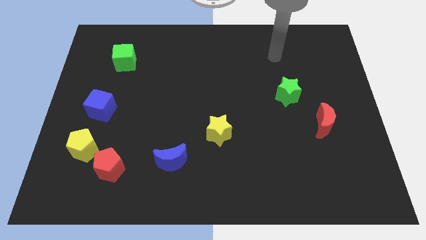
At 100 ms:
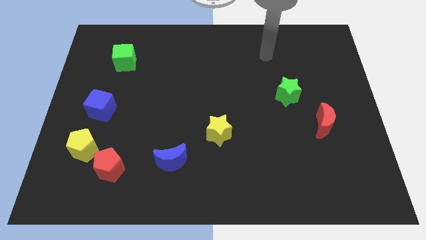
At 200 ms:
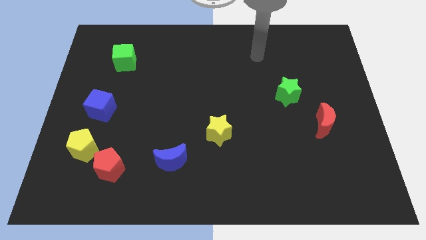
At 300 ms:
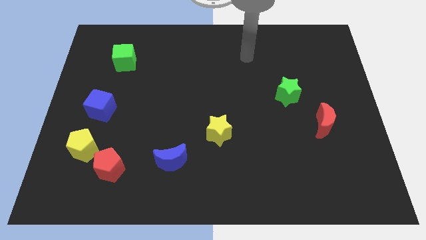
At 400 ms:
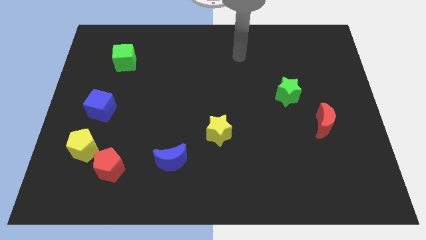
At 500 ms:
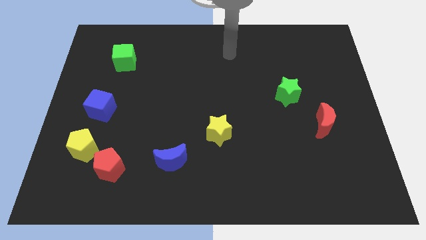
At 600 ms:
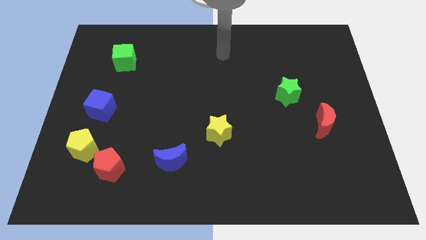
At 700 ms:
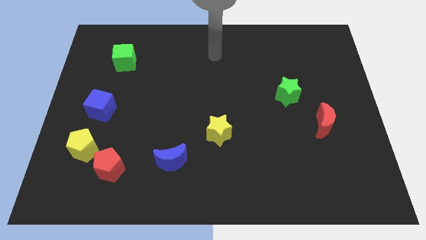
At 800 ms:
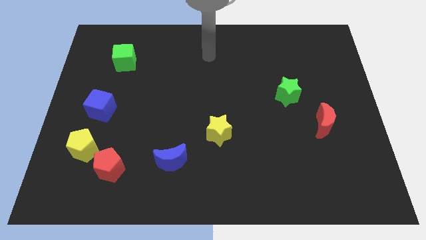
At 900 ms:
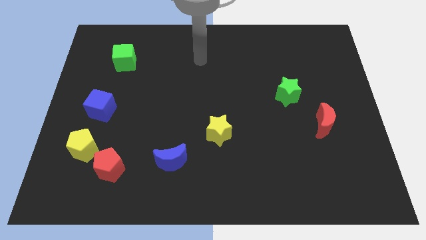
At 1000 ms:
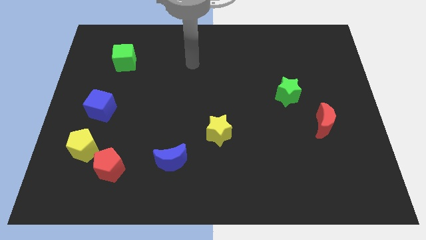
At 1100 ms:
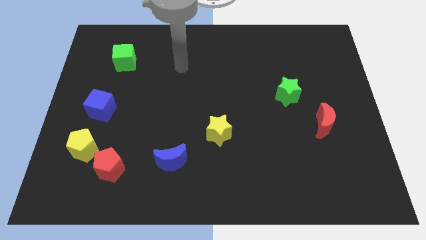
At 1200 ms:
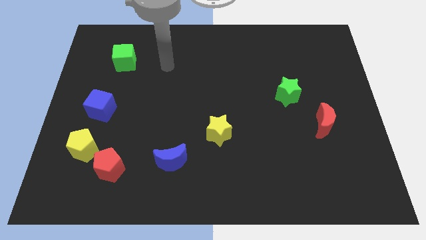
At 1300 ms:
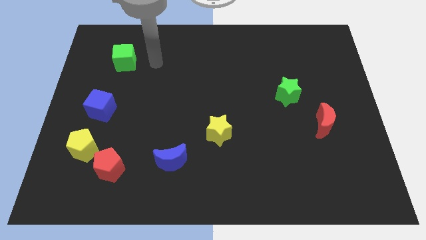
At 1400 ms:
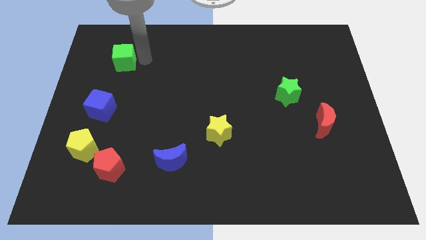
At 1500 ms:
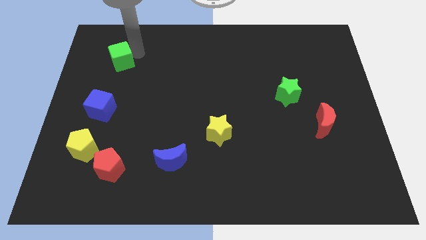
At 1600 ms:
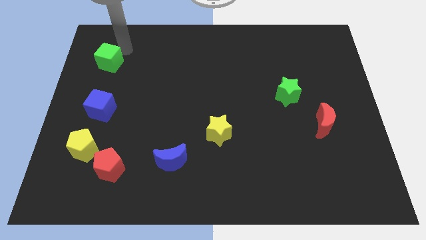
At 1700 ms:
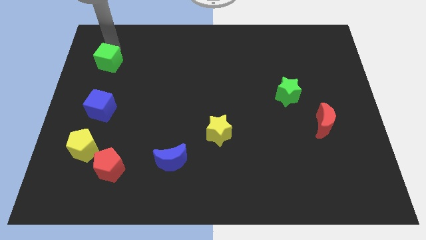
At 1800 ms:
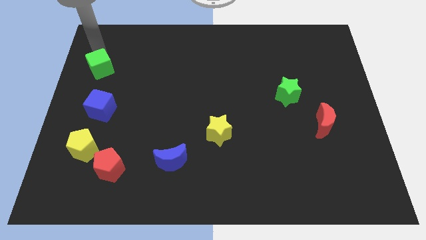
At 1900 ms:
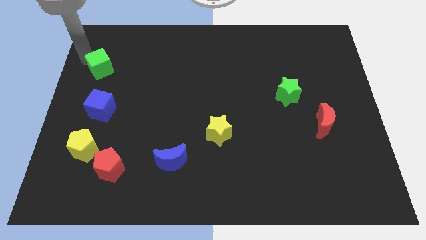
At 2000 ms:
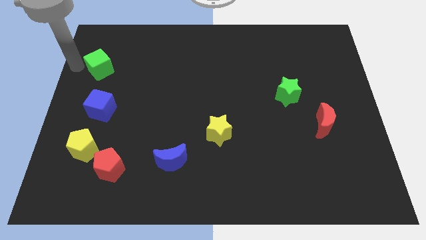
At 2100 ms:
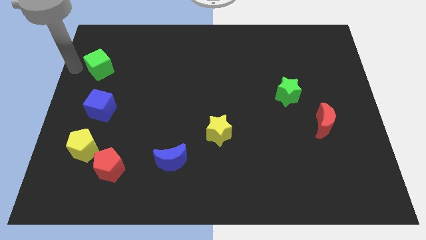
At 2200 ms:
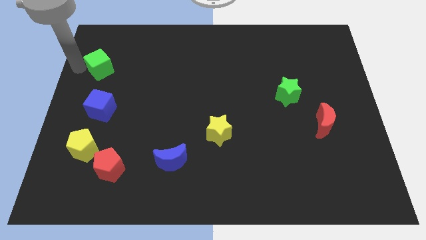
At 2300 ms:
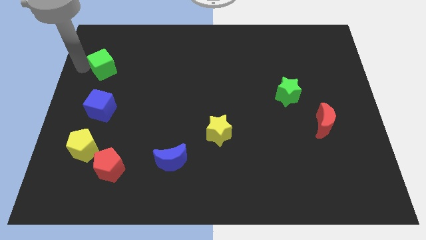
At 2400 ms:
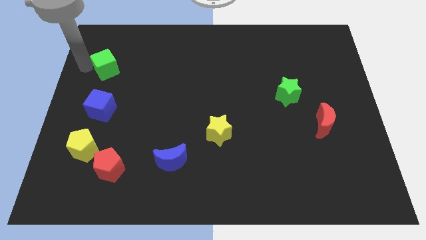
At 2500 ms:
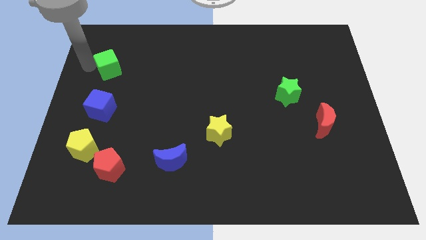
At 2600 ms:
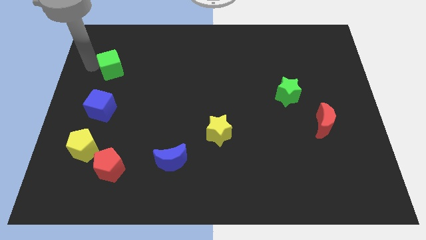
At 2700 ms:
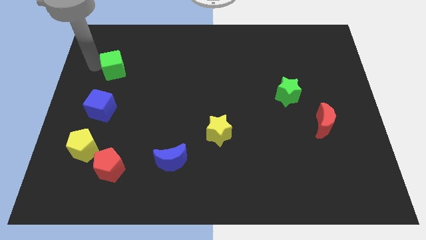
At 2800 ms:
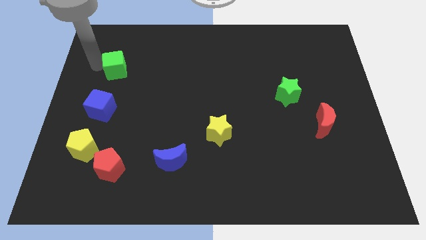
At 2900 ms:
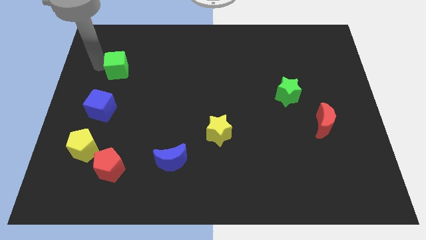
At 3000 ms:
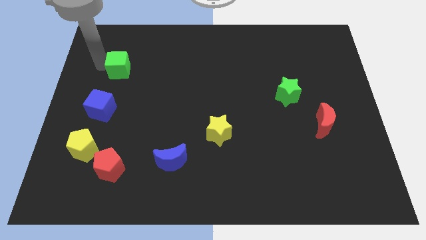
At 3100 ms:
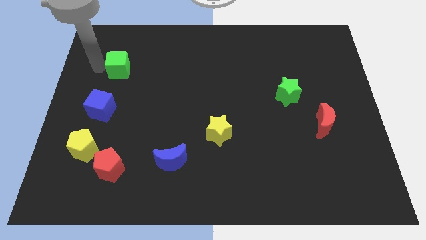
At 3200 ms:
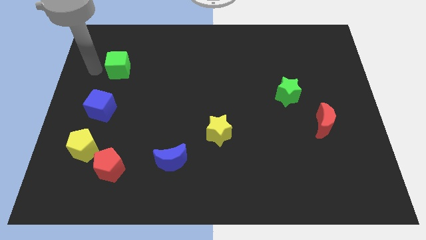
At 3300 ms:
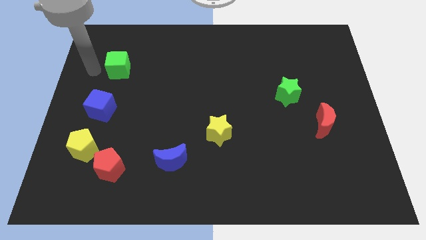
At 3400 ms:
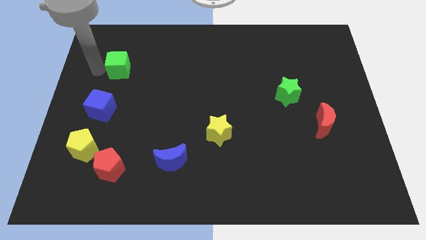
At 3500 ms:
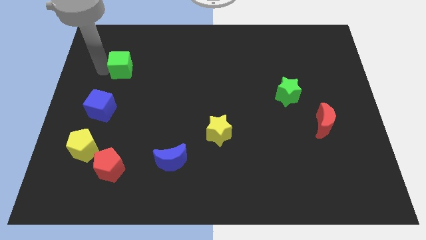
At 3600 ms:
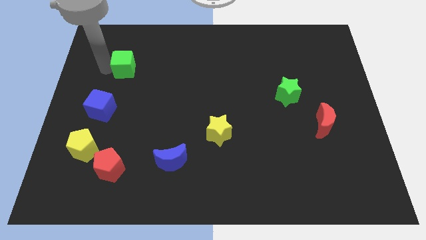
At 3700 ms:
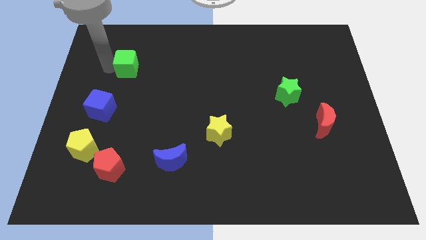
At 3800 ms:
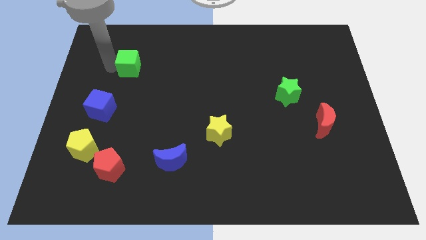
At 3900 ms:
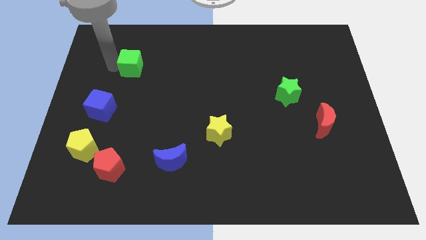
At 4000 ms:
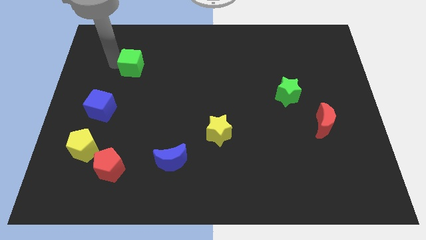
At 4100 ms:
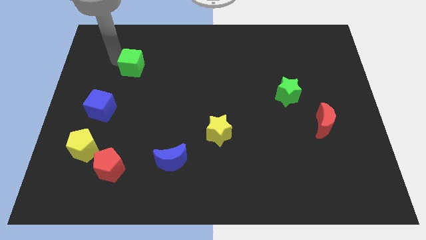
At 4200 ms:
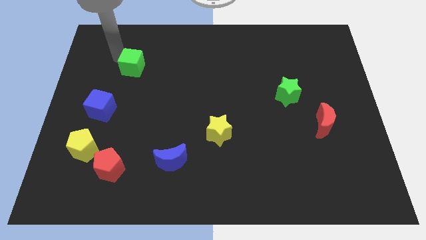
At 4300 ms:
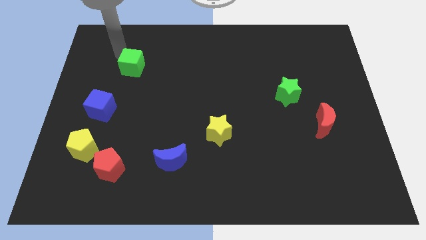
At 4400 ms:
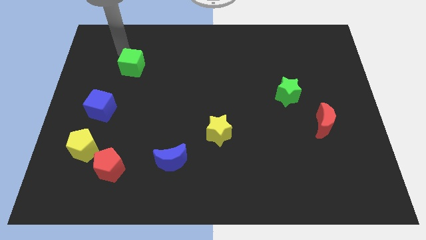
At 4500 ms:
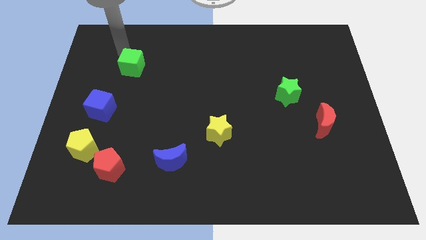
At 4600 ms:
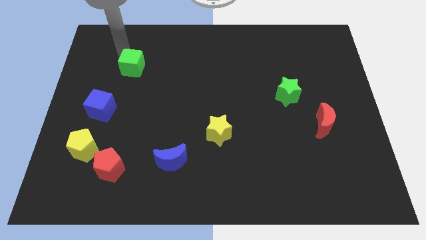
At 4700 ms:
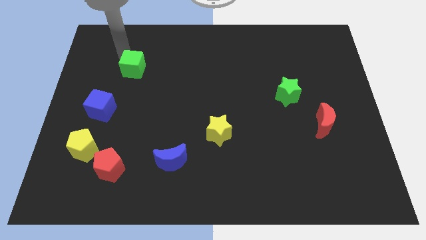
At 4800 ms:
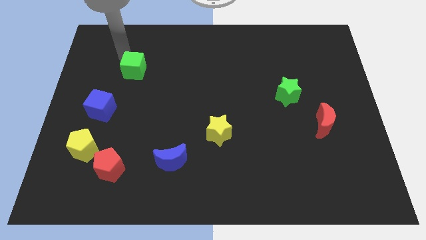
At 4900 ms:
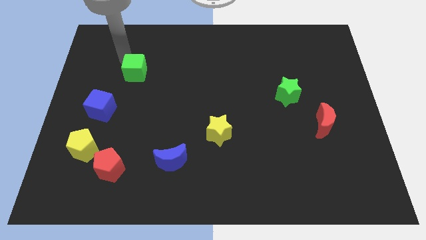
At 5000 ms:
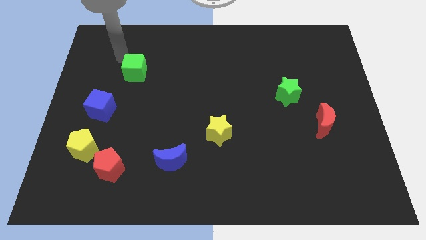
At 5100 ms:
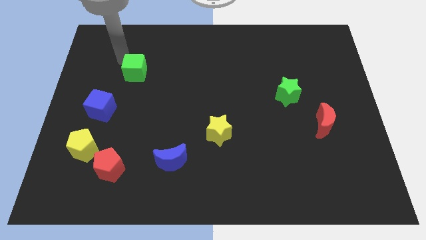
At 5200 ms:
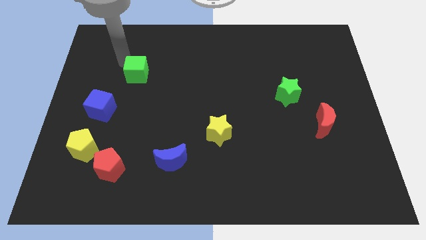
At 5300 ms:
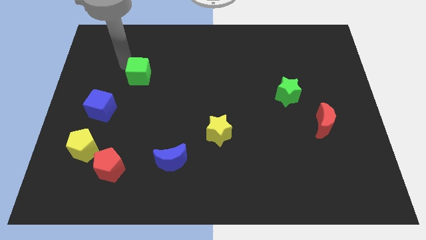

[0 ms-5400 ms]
push the green cube diagonally down and right slightly

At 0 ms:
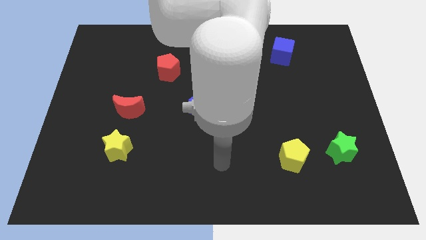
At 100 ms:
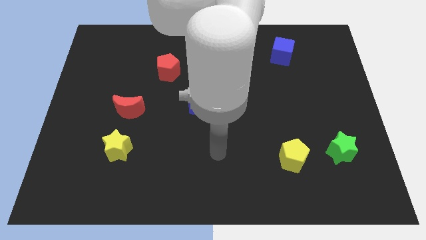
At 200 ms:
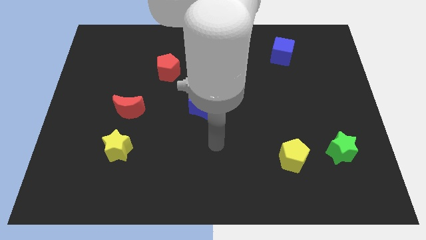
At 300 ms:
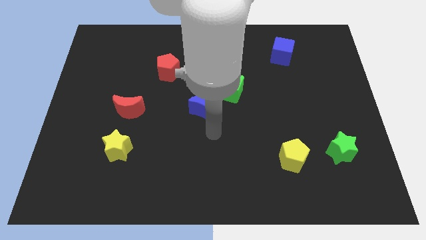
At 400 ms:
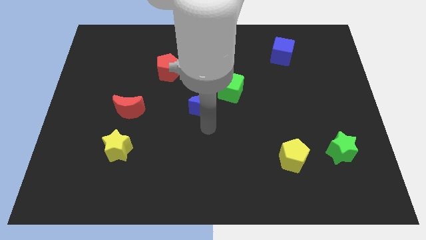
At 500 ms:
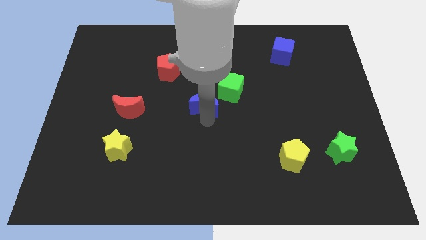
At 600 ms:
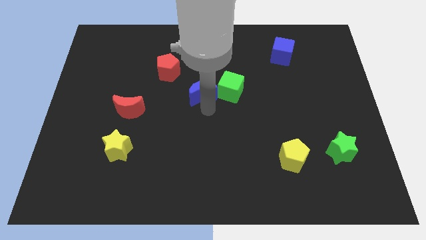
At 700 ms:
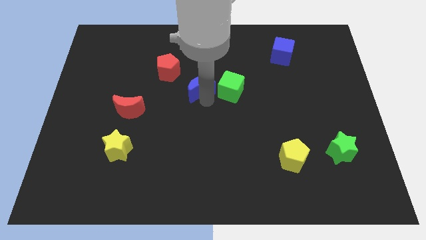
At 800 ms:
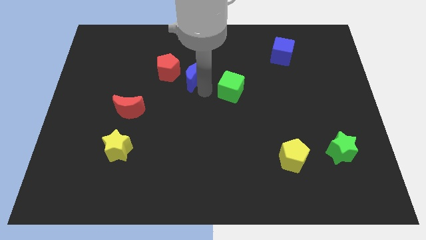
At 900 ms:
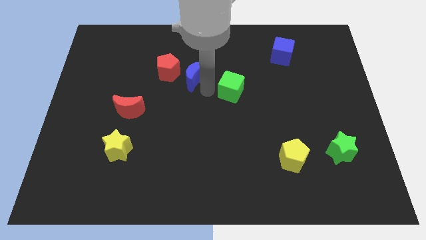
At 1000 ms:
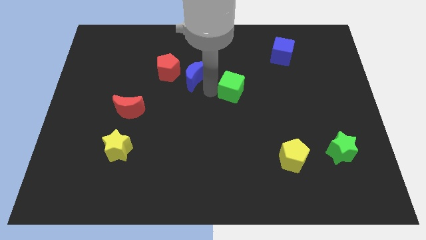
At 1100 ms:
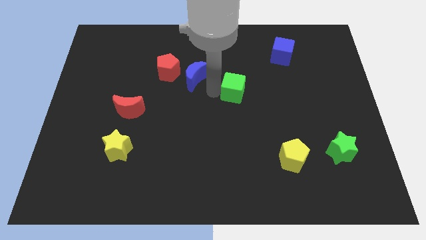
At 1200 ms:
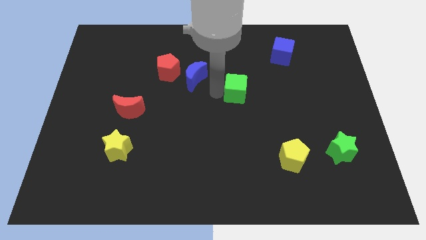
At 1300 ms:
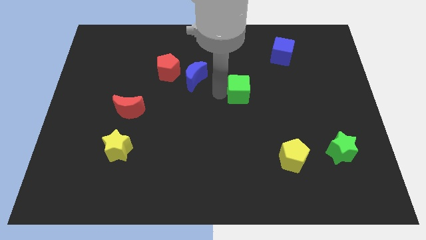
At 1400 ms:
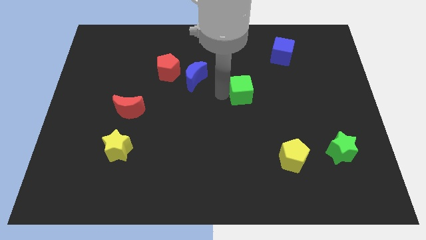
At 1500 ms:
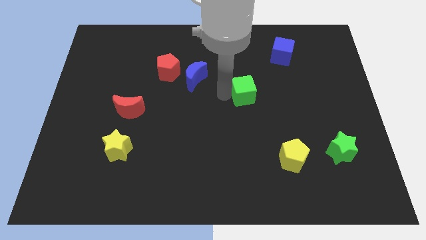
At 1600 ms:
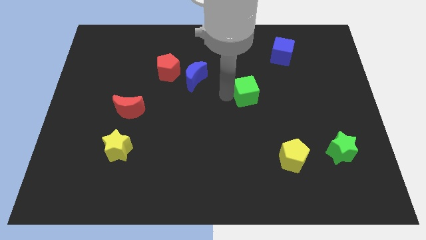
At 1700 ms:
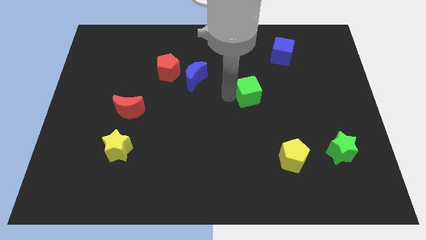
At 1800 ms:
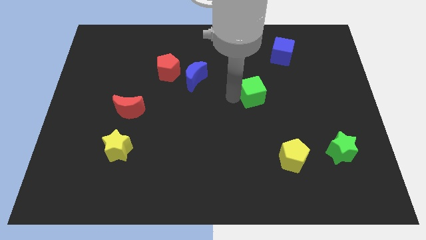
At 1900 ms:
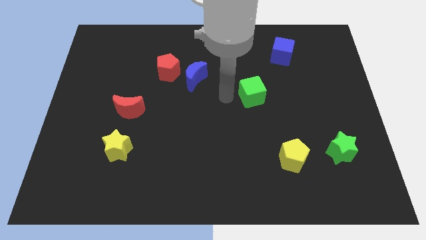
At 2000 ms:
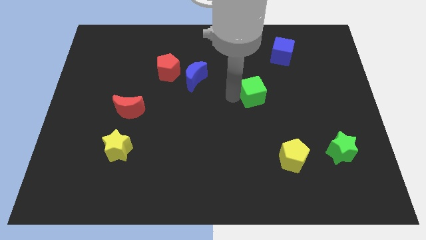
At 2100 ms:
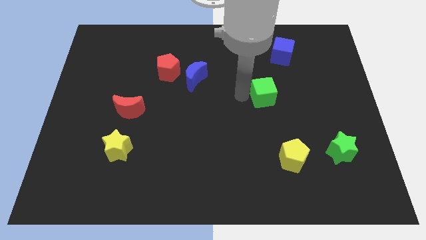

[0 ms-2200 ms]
move the green cube right slightly

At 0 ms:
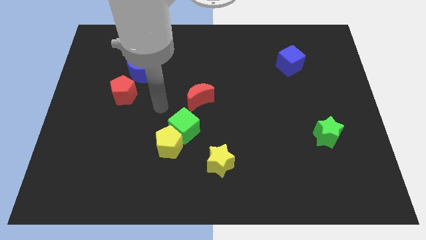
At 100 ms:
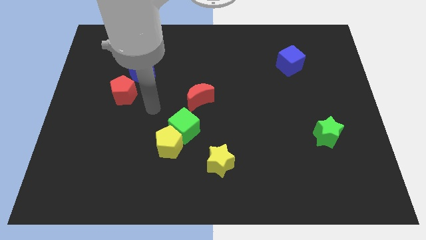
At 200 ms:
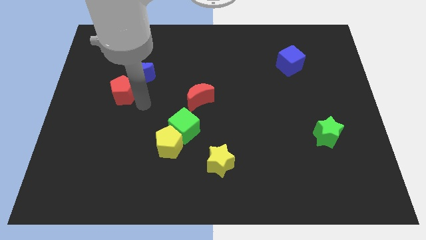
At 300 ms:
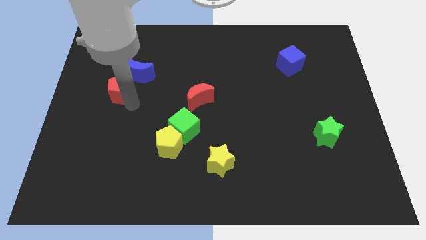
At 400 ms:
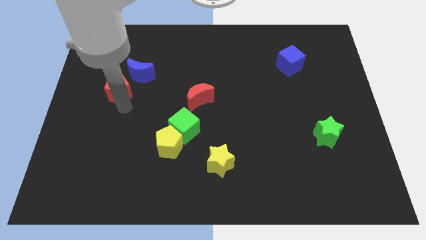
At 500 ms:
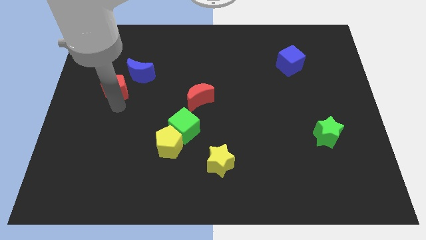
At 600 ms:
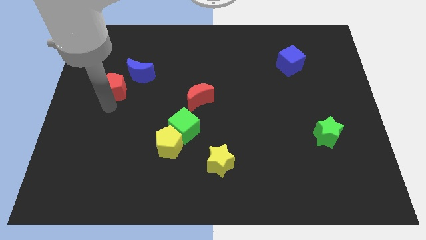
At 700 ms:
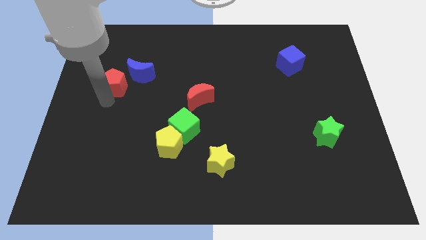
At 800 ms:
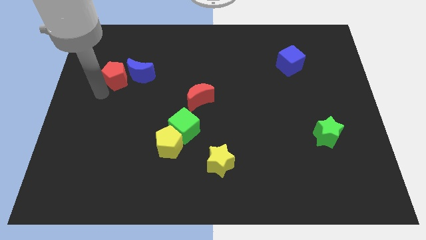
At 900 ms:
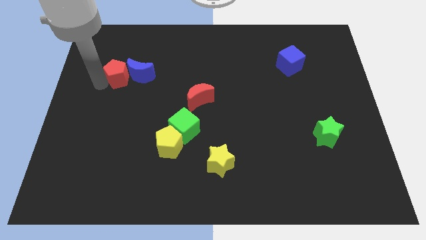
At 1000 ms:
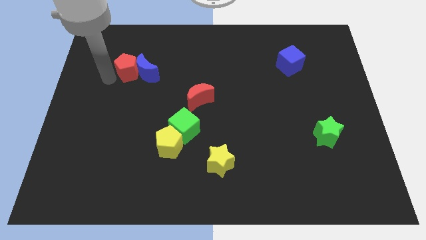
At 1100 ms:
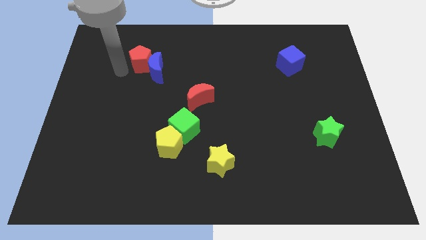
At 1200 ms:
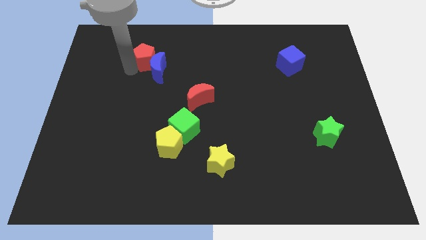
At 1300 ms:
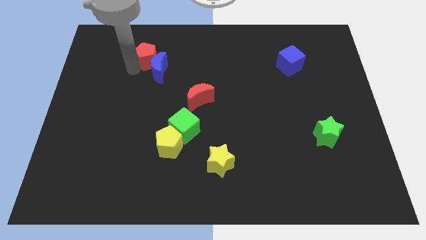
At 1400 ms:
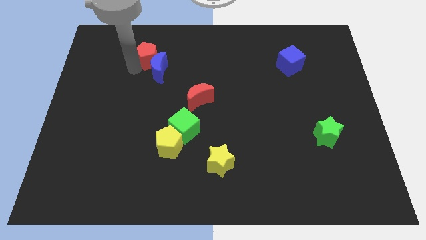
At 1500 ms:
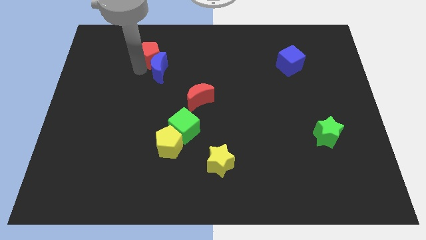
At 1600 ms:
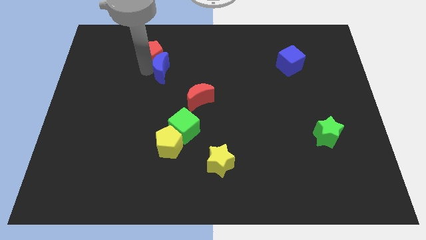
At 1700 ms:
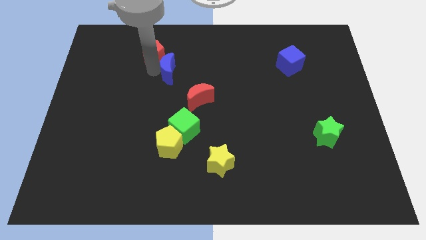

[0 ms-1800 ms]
move the blue moon a little to the right
